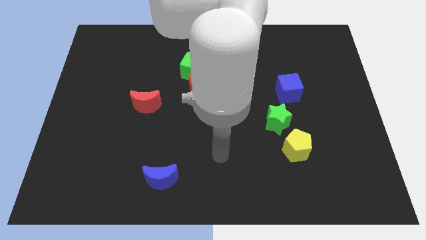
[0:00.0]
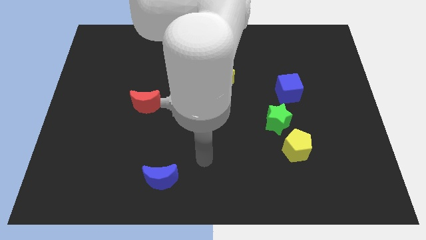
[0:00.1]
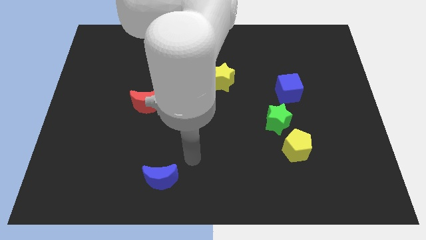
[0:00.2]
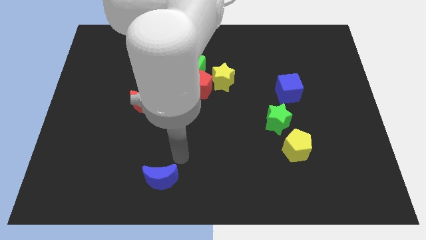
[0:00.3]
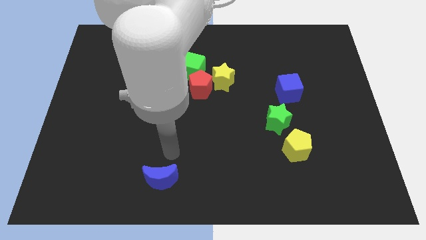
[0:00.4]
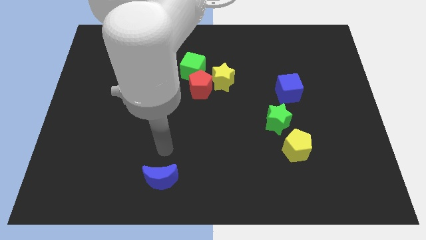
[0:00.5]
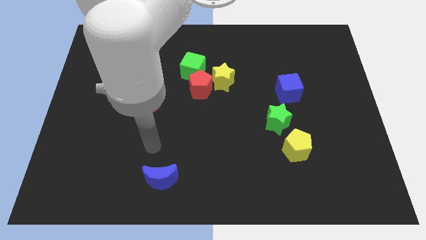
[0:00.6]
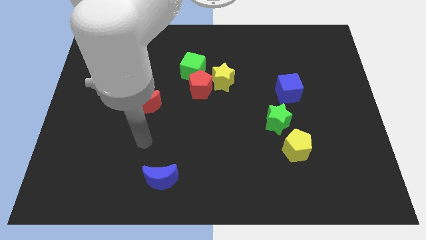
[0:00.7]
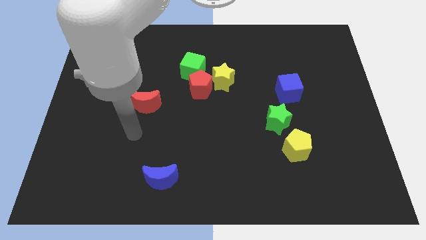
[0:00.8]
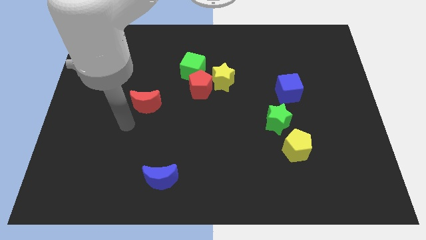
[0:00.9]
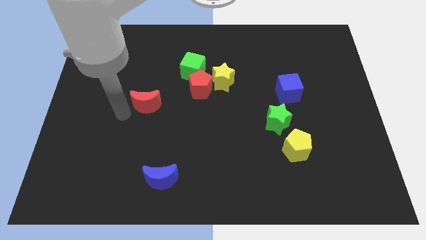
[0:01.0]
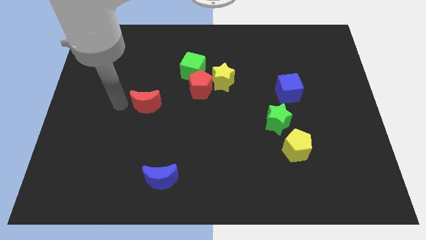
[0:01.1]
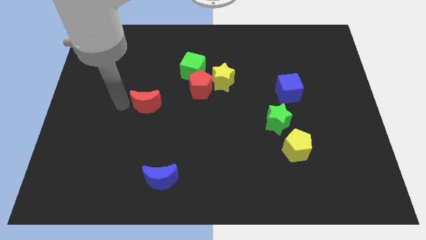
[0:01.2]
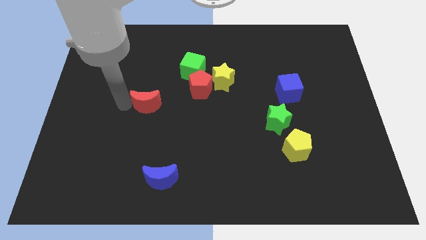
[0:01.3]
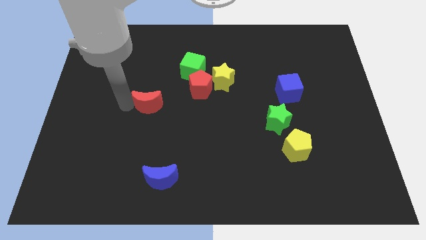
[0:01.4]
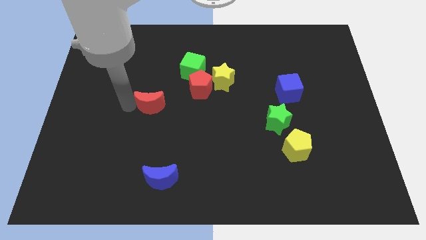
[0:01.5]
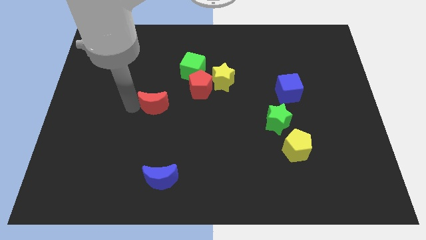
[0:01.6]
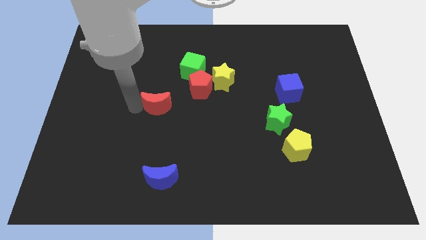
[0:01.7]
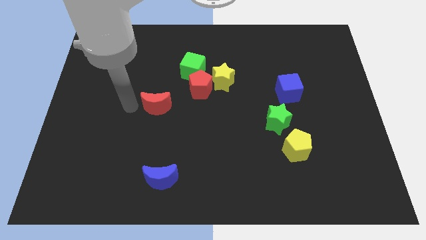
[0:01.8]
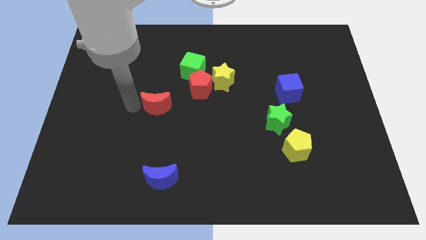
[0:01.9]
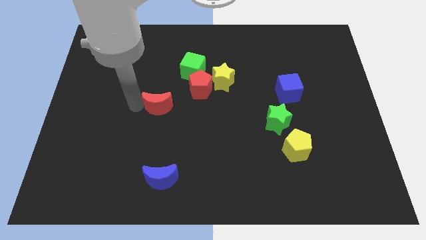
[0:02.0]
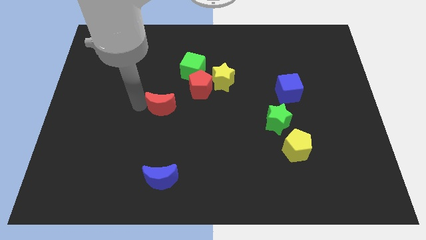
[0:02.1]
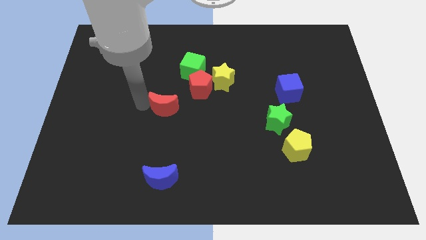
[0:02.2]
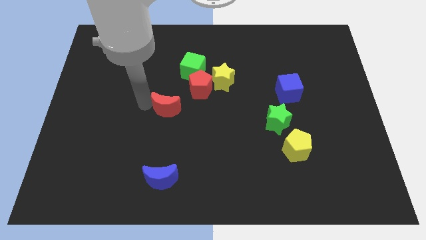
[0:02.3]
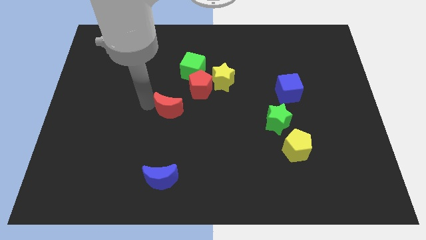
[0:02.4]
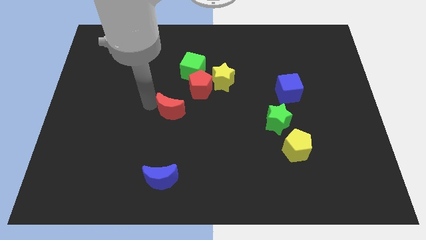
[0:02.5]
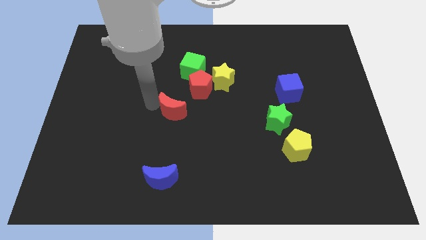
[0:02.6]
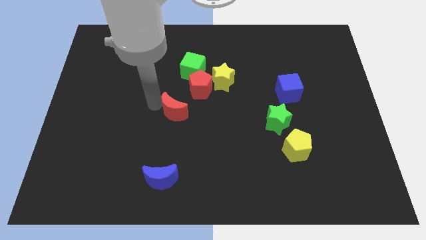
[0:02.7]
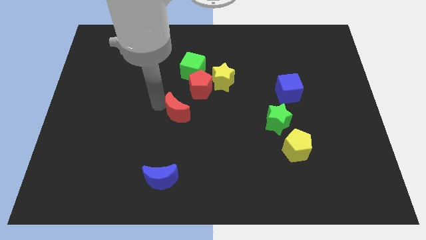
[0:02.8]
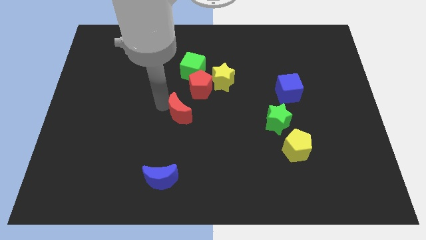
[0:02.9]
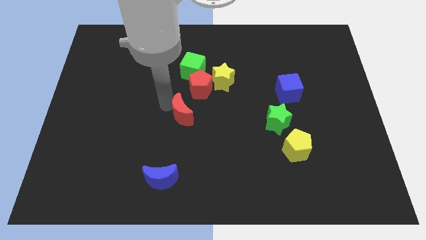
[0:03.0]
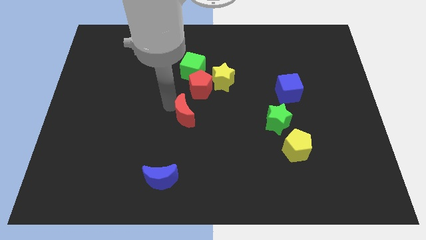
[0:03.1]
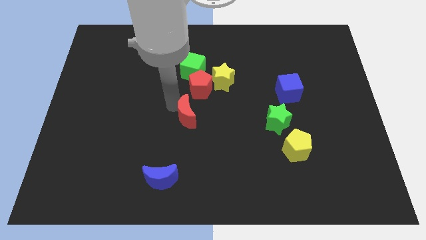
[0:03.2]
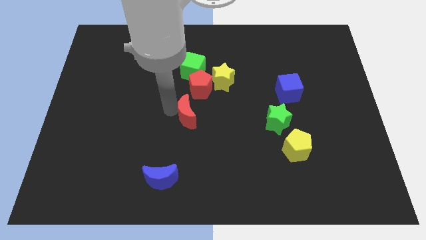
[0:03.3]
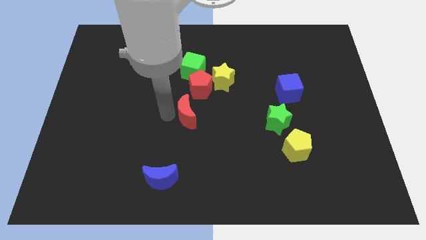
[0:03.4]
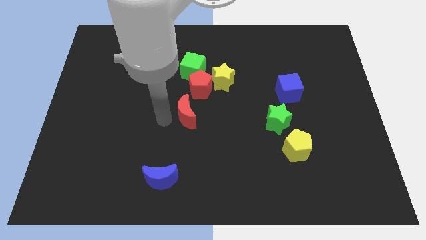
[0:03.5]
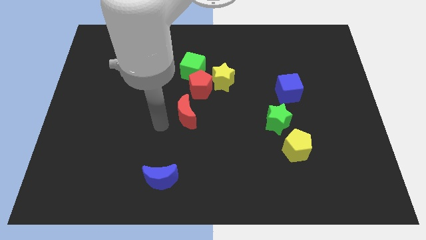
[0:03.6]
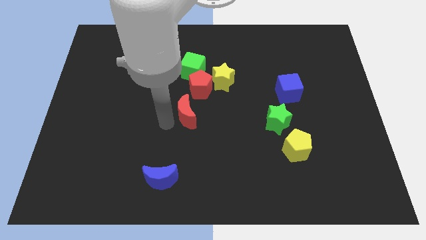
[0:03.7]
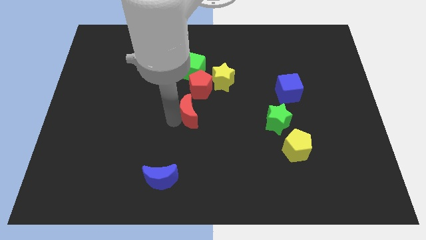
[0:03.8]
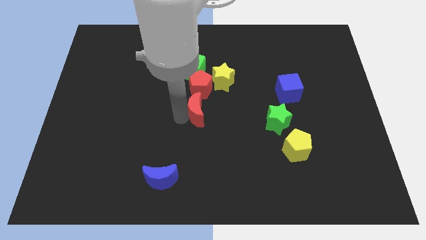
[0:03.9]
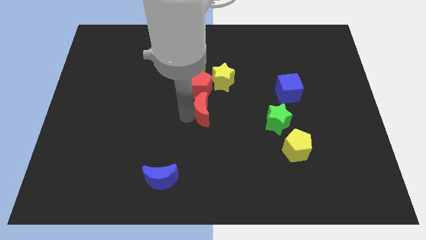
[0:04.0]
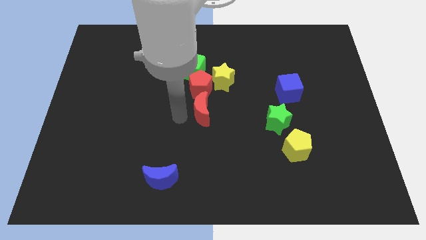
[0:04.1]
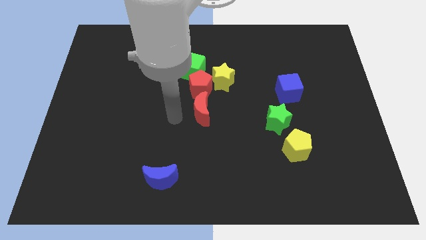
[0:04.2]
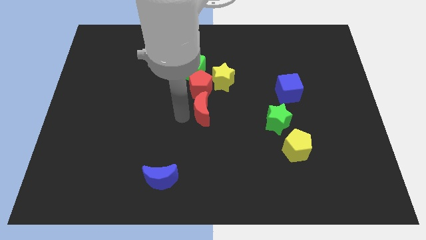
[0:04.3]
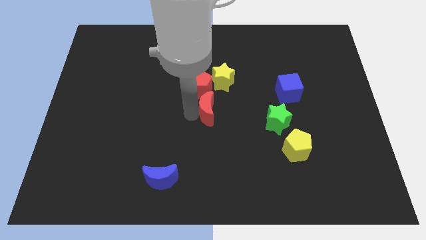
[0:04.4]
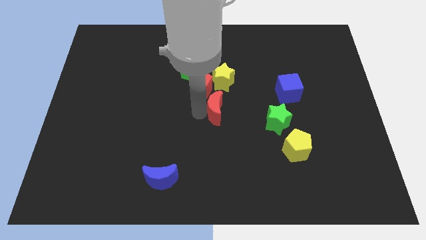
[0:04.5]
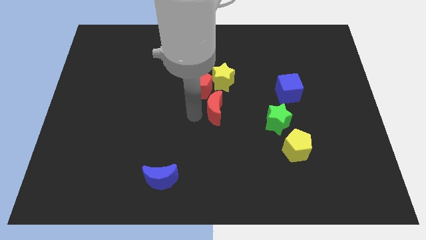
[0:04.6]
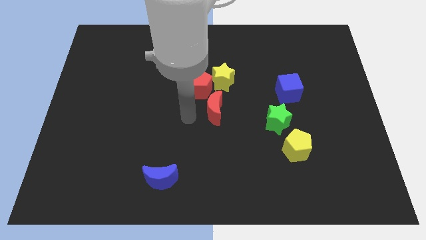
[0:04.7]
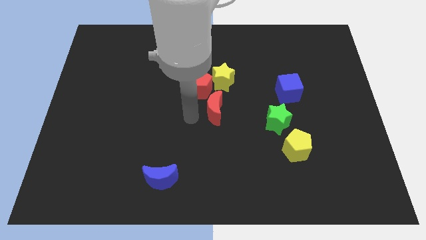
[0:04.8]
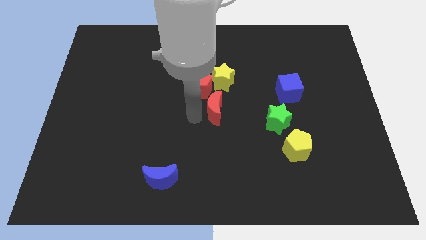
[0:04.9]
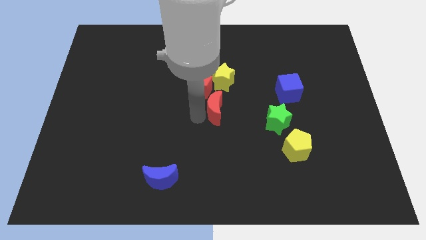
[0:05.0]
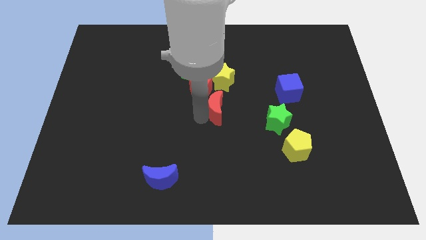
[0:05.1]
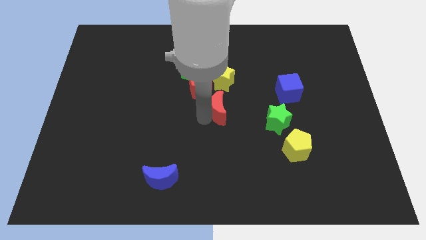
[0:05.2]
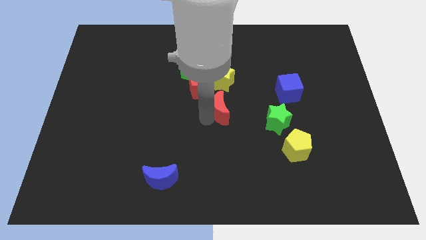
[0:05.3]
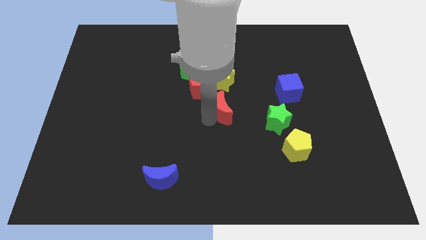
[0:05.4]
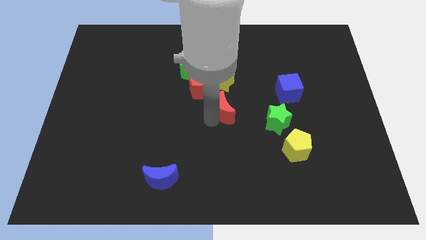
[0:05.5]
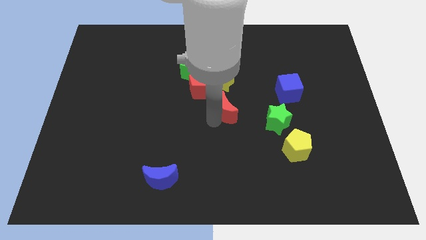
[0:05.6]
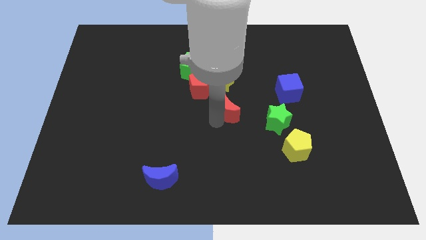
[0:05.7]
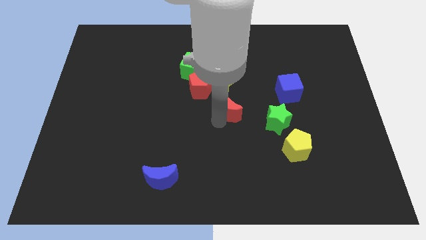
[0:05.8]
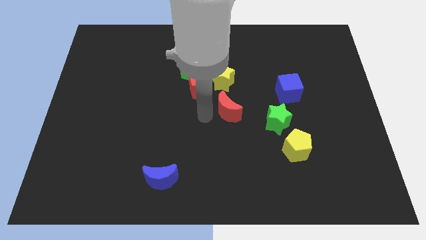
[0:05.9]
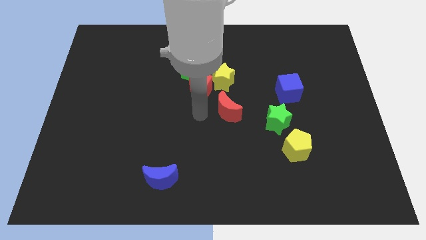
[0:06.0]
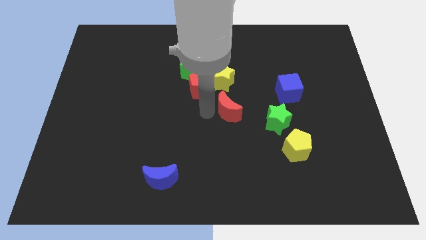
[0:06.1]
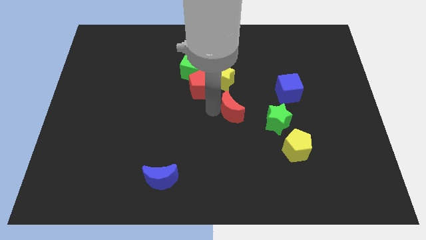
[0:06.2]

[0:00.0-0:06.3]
move the red moon to the right

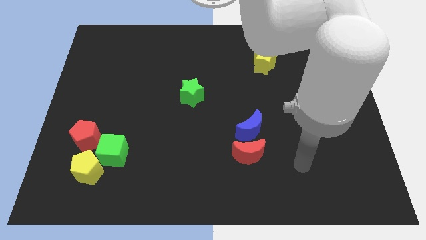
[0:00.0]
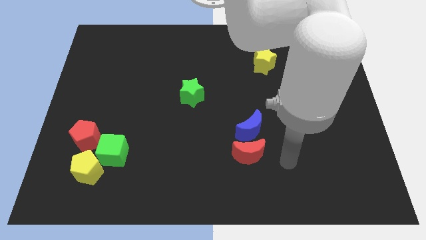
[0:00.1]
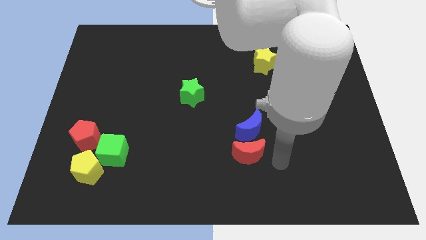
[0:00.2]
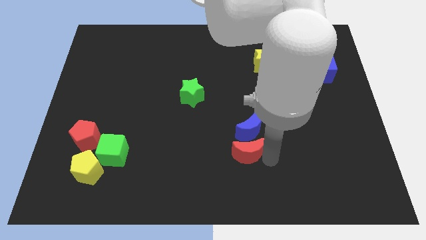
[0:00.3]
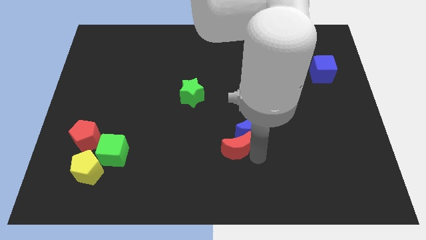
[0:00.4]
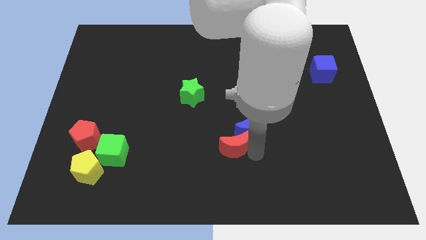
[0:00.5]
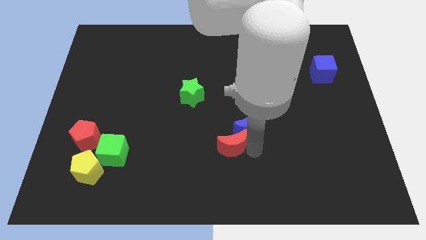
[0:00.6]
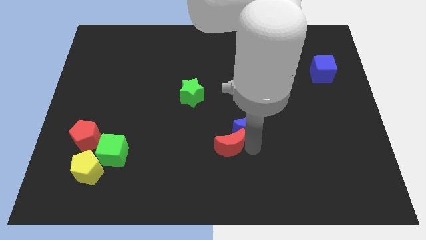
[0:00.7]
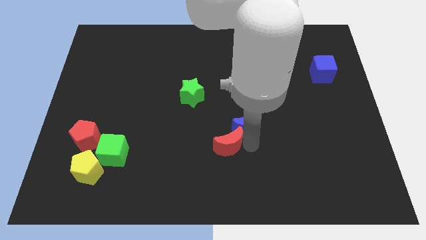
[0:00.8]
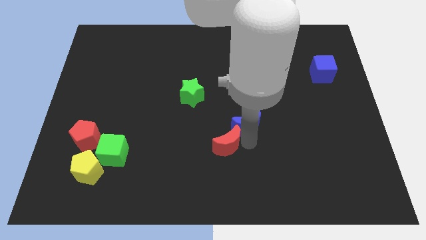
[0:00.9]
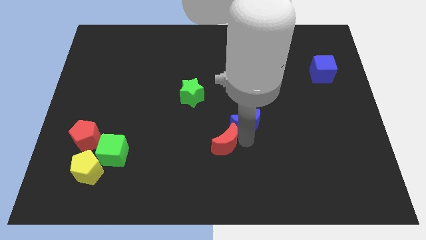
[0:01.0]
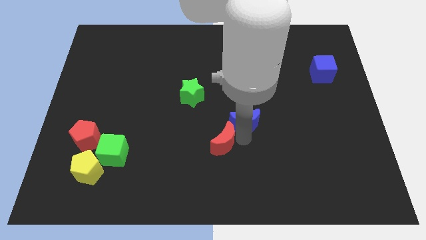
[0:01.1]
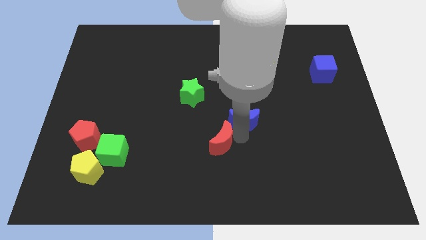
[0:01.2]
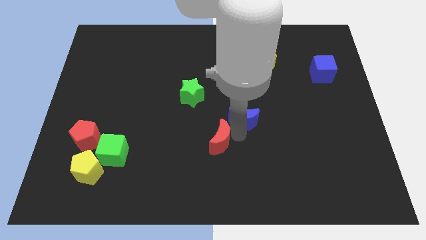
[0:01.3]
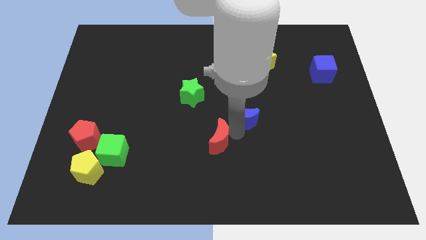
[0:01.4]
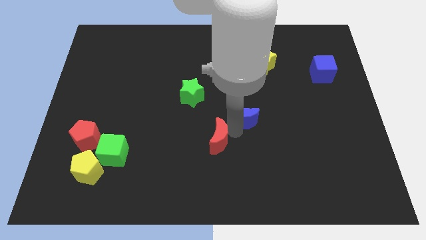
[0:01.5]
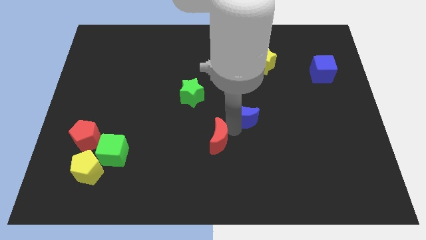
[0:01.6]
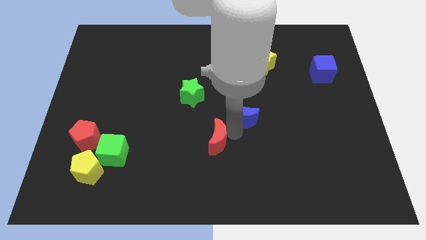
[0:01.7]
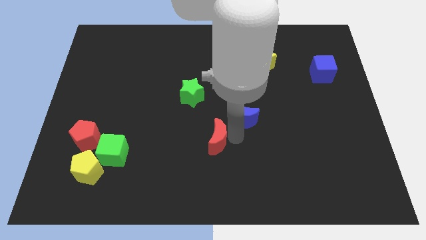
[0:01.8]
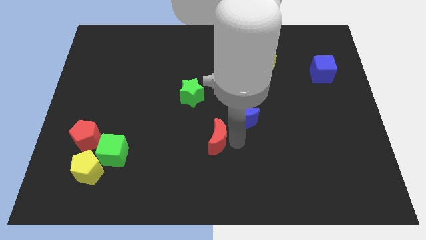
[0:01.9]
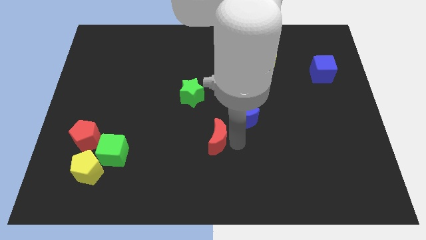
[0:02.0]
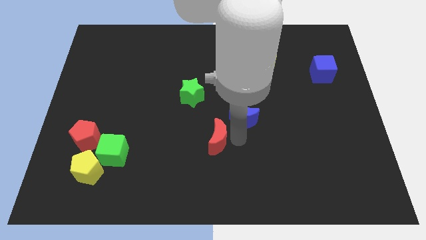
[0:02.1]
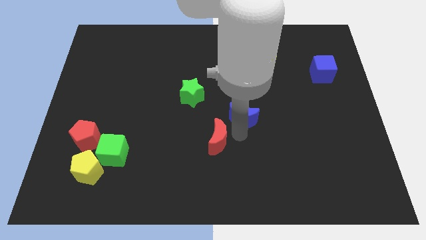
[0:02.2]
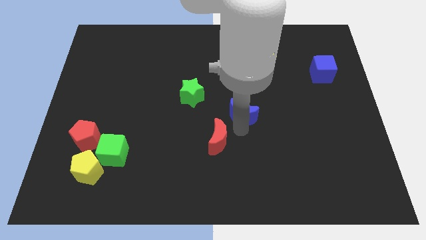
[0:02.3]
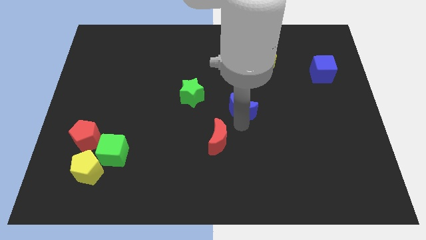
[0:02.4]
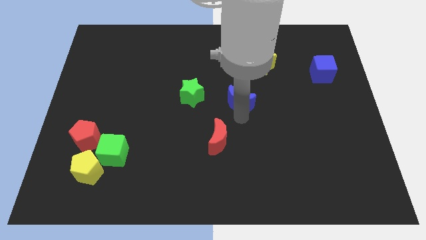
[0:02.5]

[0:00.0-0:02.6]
move the blue moon upwards a little
